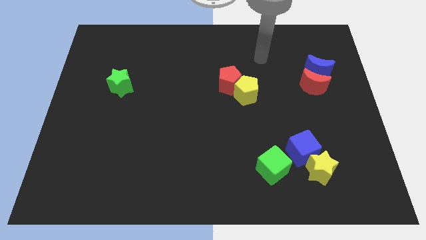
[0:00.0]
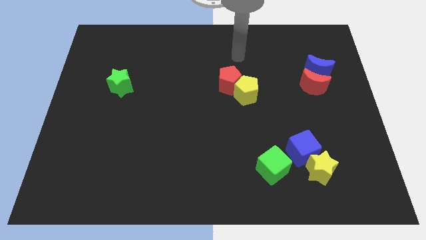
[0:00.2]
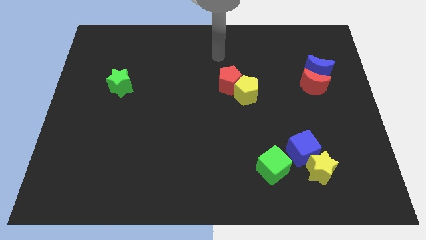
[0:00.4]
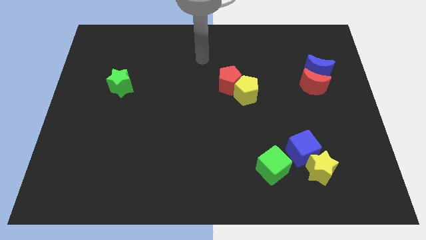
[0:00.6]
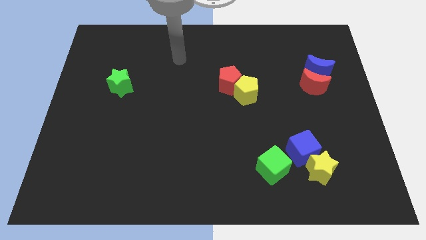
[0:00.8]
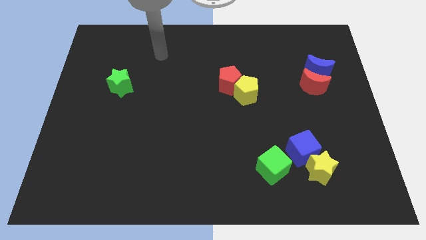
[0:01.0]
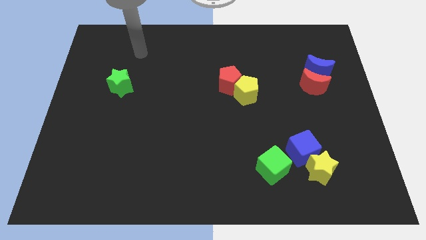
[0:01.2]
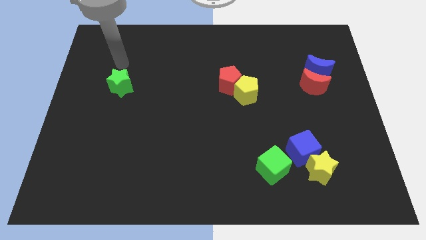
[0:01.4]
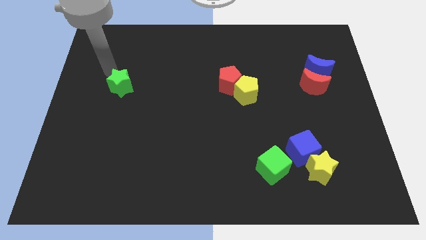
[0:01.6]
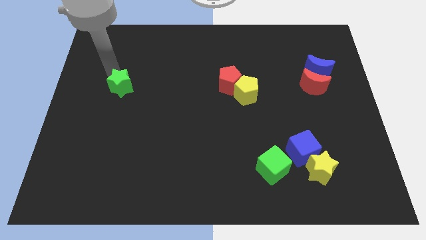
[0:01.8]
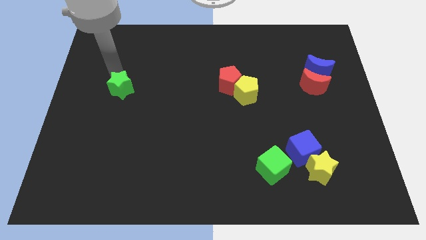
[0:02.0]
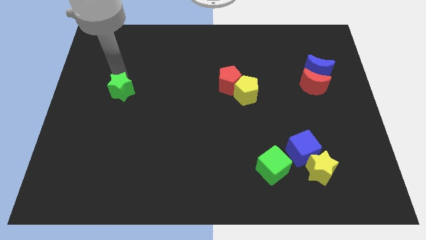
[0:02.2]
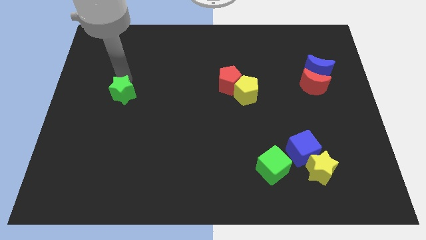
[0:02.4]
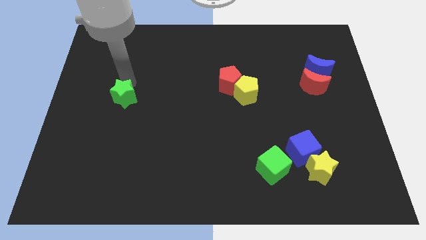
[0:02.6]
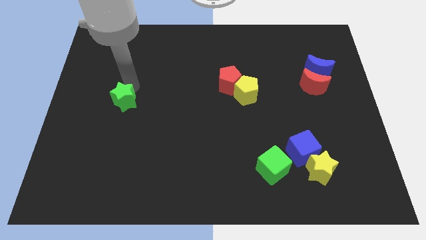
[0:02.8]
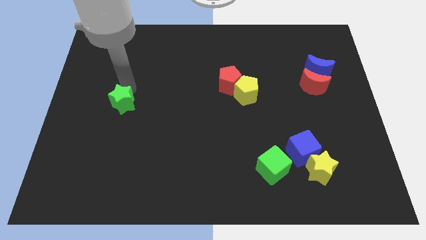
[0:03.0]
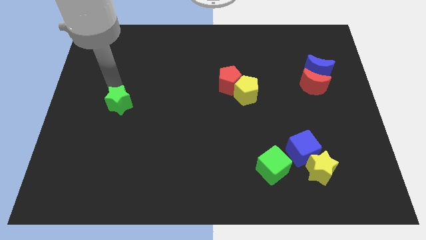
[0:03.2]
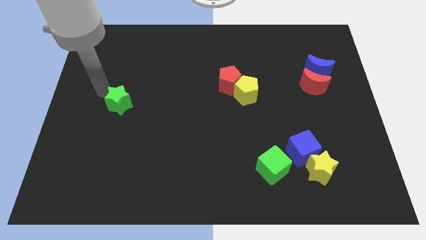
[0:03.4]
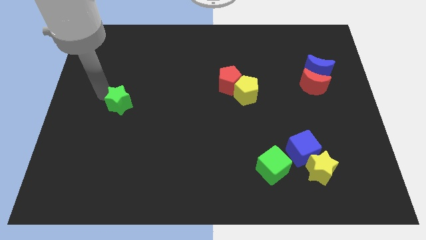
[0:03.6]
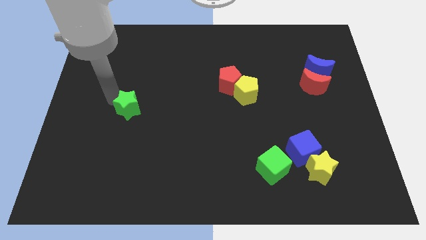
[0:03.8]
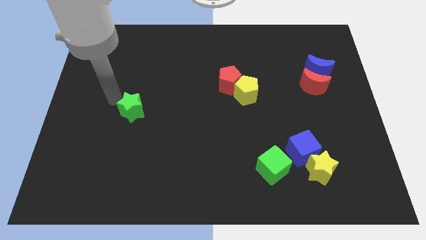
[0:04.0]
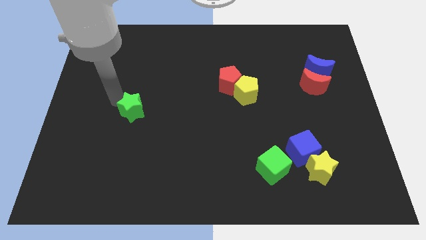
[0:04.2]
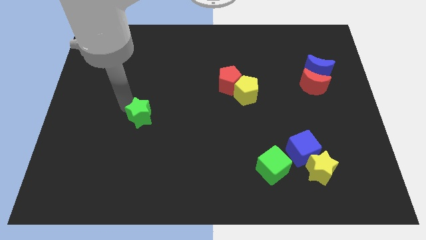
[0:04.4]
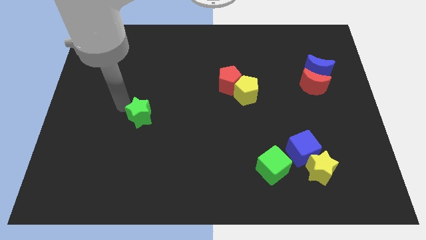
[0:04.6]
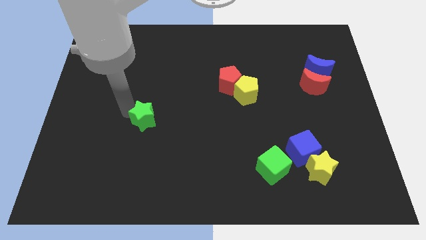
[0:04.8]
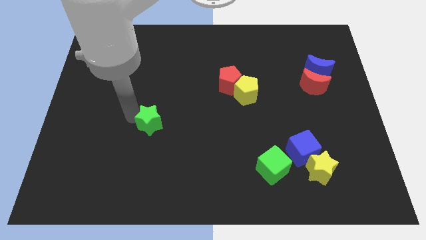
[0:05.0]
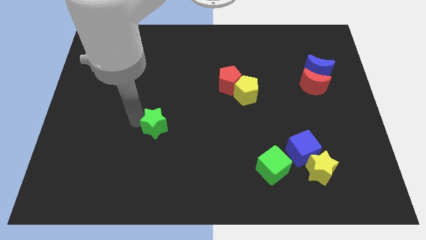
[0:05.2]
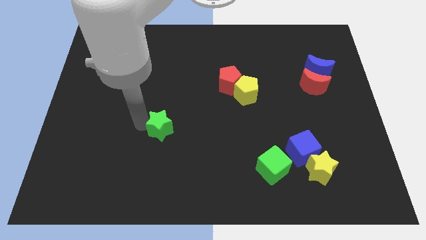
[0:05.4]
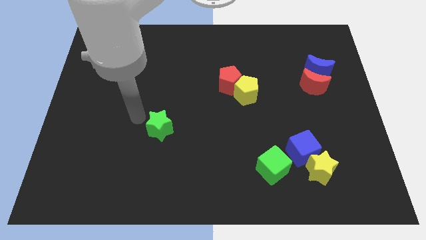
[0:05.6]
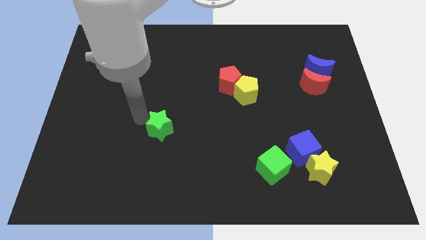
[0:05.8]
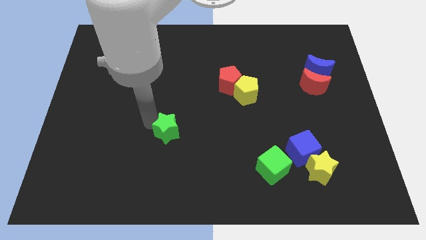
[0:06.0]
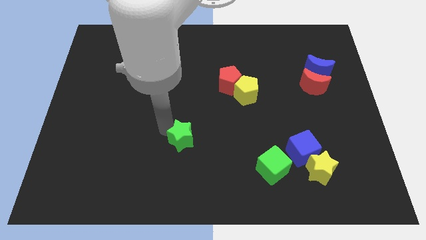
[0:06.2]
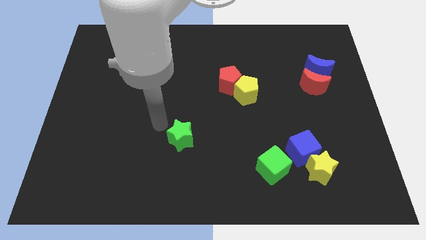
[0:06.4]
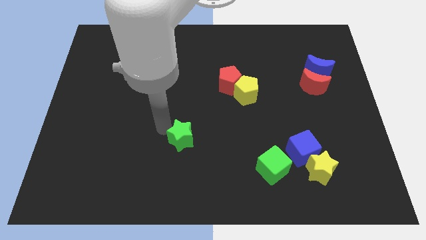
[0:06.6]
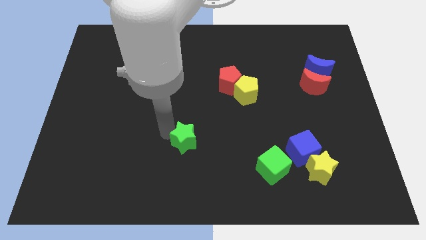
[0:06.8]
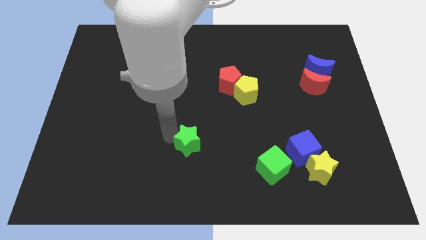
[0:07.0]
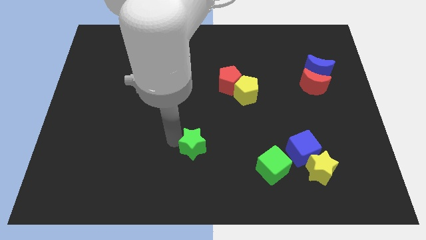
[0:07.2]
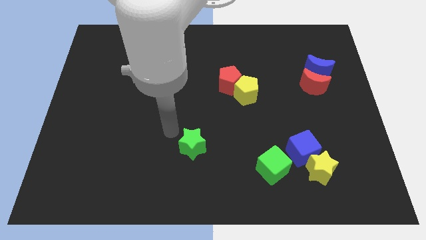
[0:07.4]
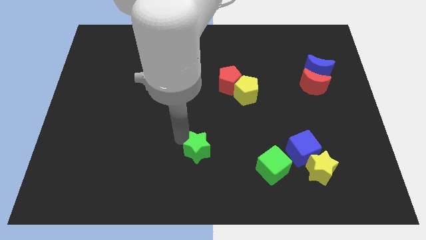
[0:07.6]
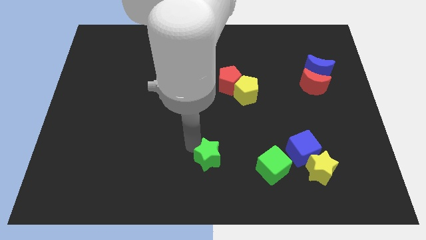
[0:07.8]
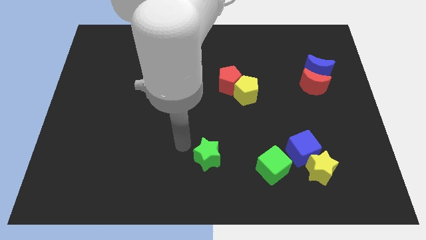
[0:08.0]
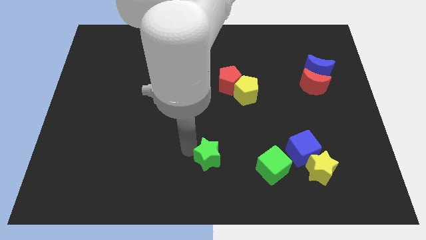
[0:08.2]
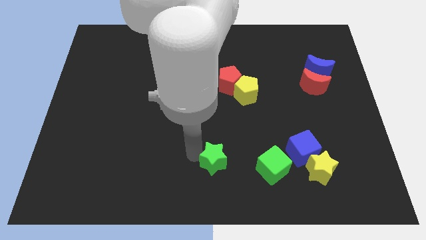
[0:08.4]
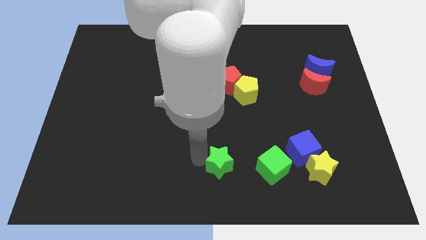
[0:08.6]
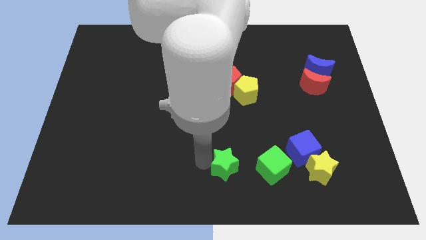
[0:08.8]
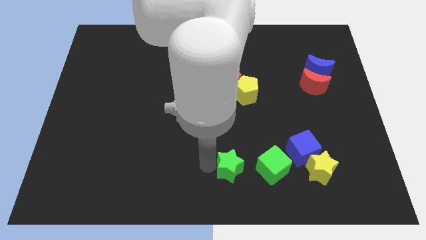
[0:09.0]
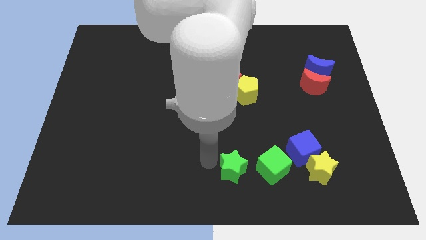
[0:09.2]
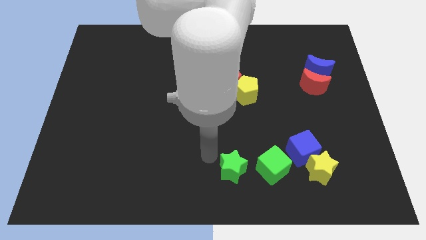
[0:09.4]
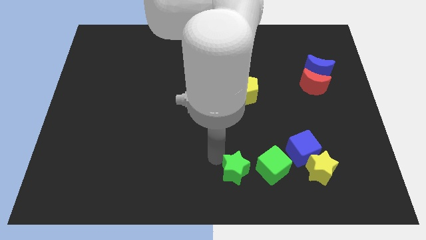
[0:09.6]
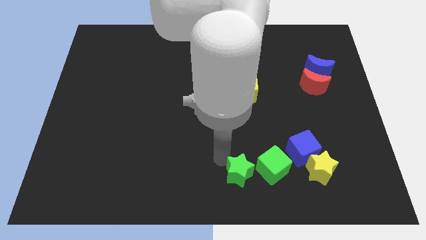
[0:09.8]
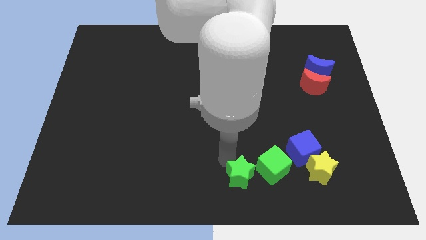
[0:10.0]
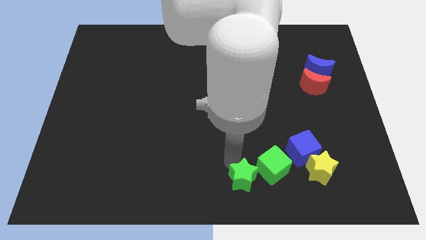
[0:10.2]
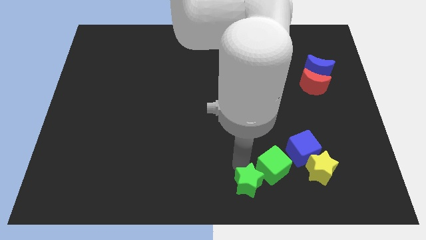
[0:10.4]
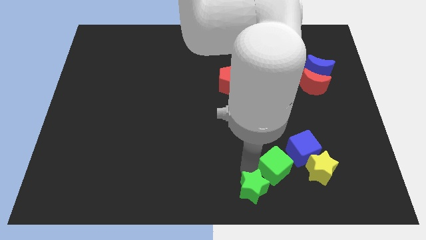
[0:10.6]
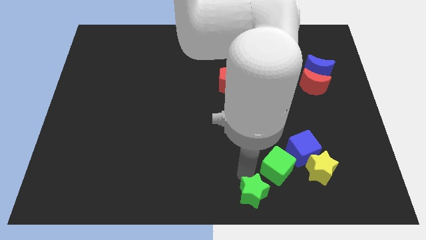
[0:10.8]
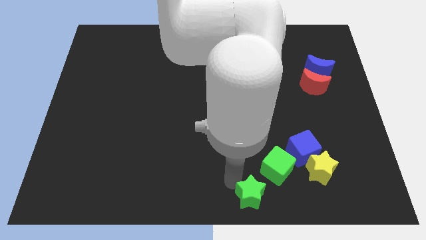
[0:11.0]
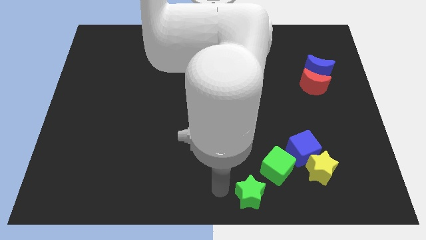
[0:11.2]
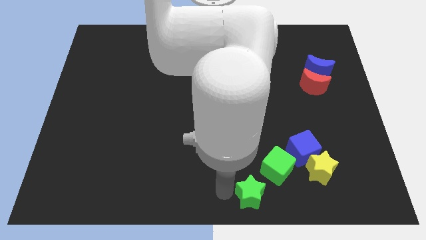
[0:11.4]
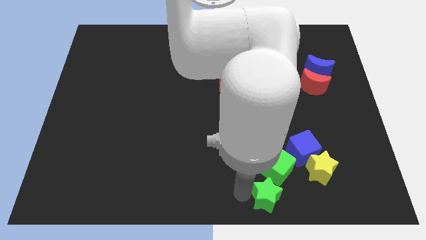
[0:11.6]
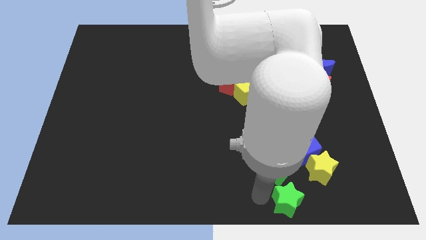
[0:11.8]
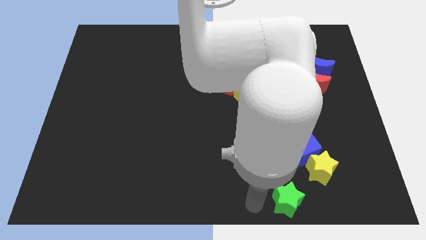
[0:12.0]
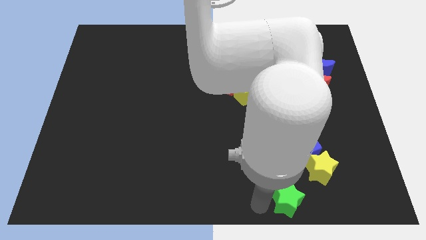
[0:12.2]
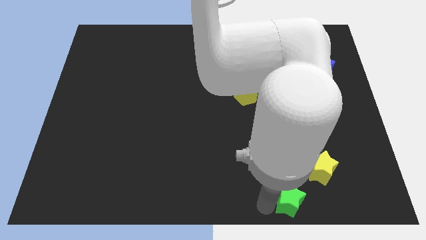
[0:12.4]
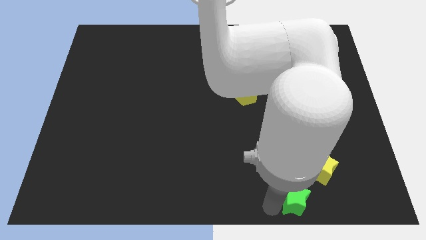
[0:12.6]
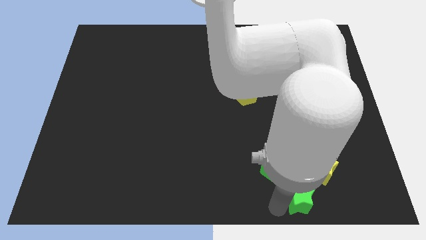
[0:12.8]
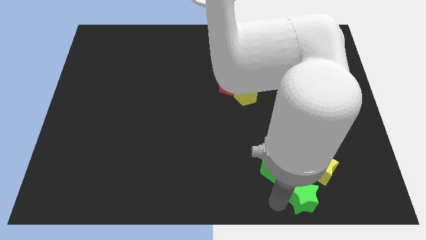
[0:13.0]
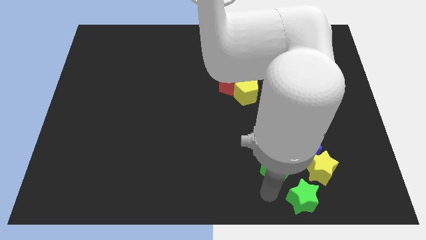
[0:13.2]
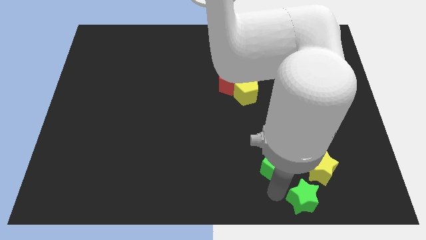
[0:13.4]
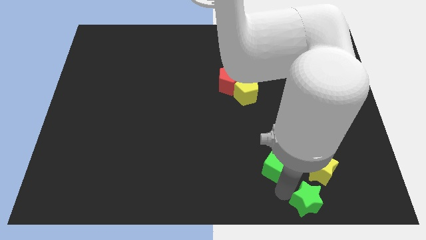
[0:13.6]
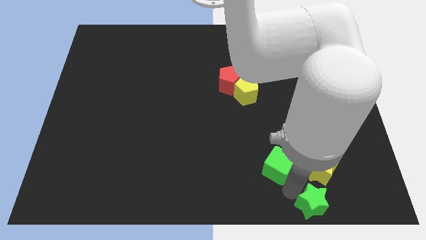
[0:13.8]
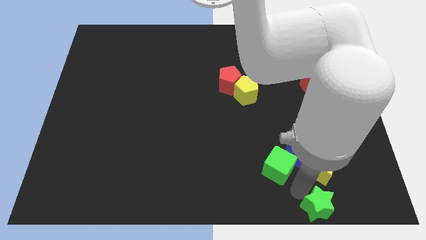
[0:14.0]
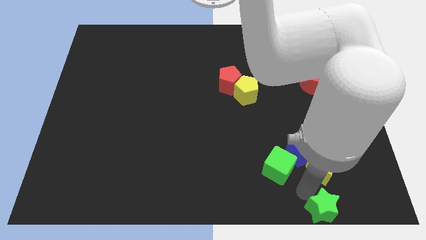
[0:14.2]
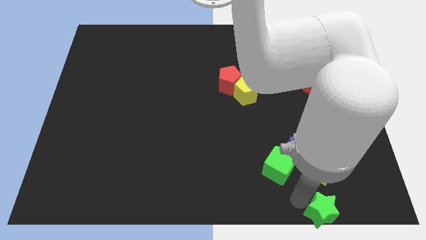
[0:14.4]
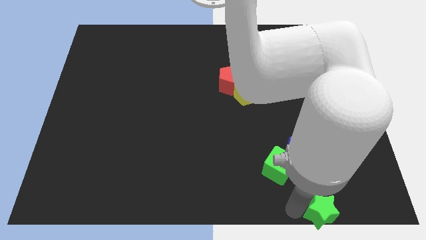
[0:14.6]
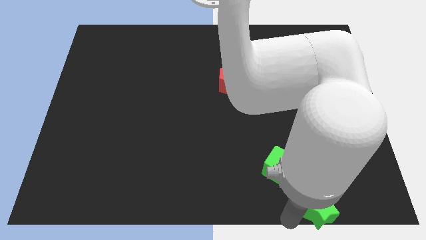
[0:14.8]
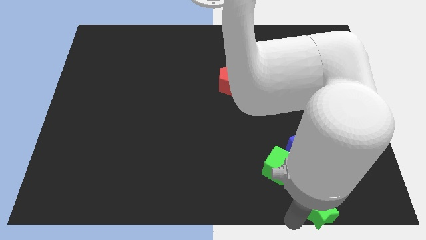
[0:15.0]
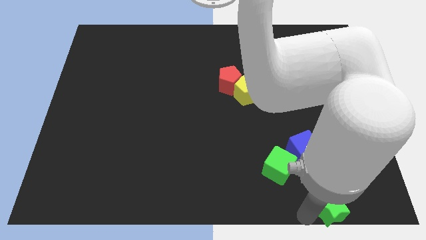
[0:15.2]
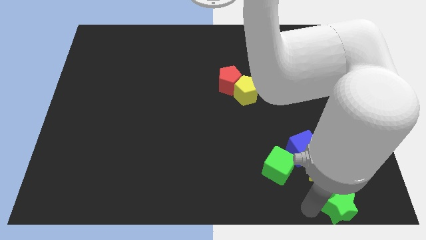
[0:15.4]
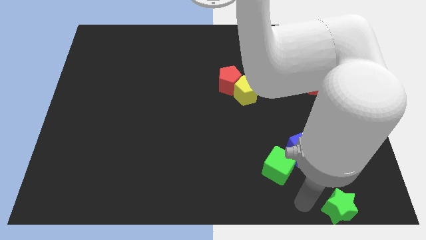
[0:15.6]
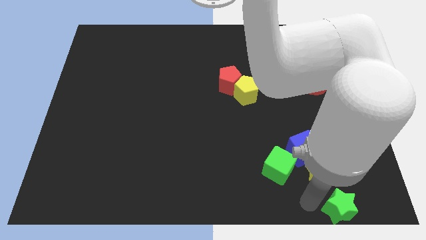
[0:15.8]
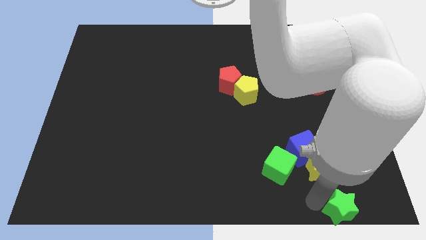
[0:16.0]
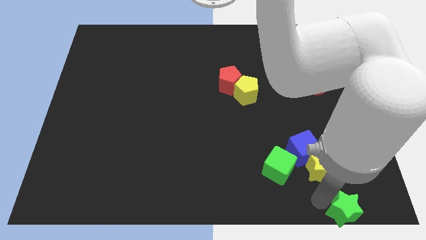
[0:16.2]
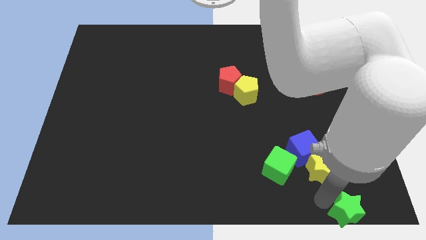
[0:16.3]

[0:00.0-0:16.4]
push the green star to the lower right corner
